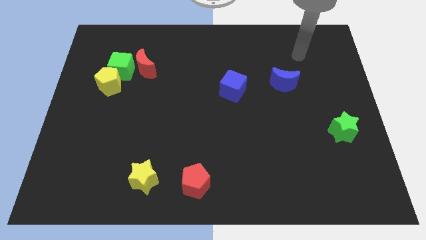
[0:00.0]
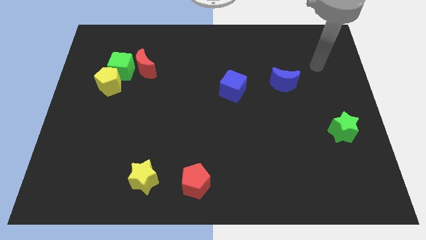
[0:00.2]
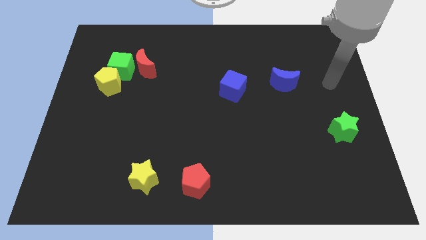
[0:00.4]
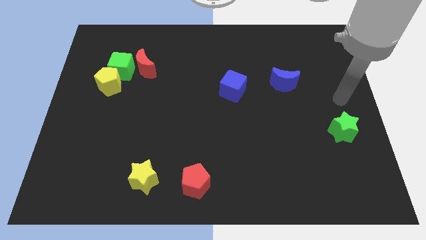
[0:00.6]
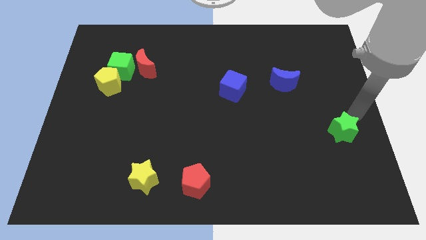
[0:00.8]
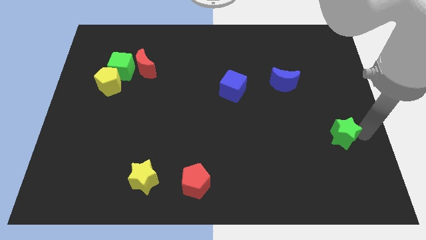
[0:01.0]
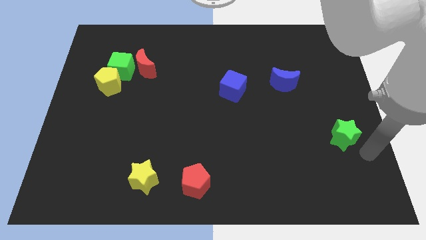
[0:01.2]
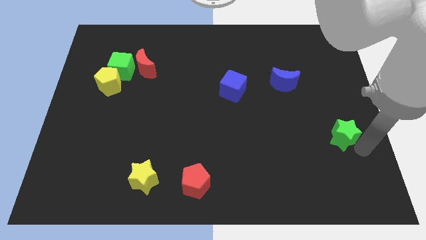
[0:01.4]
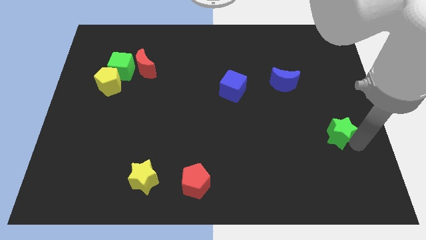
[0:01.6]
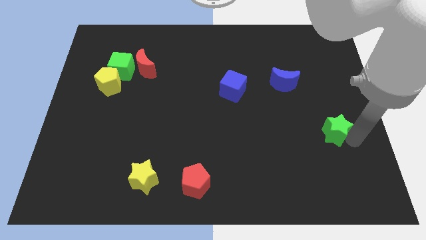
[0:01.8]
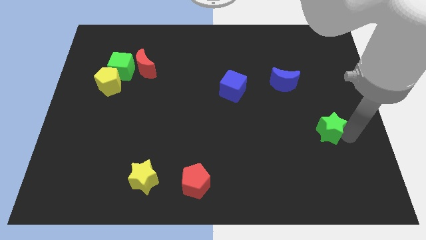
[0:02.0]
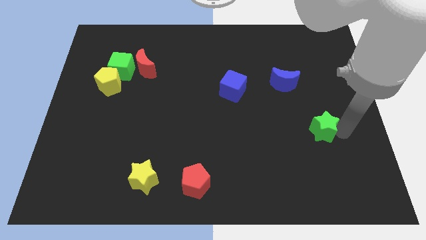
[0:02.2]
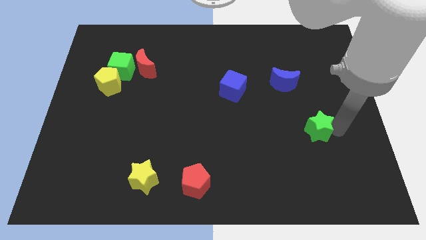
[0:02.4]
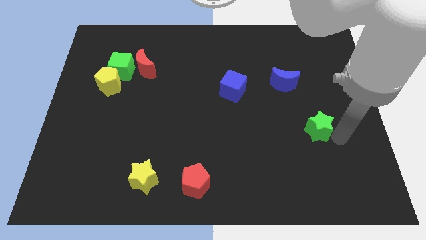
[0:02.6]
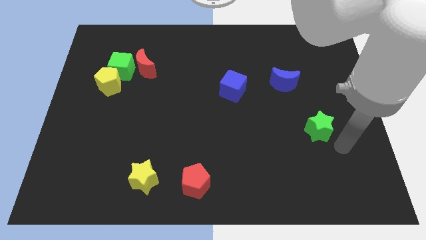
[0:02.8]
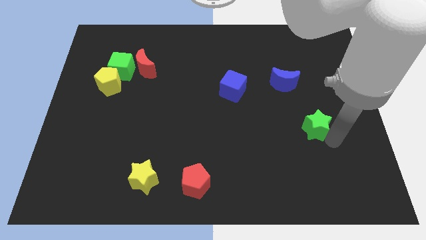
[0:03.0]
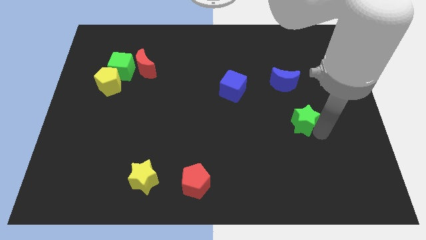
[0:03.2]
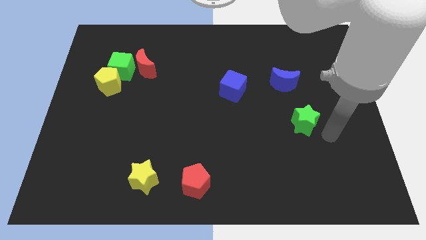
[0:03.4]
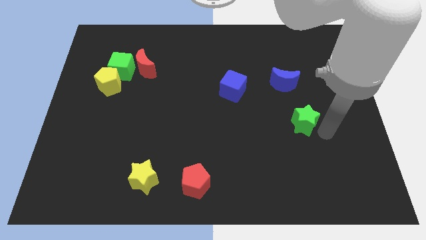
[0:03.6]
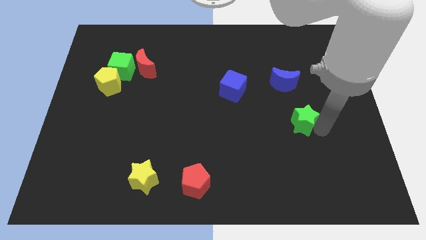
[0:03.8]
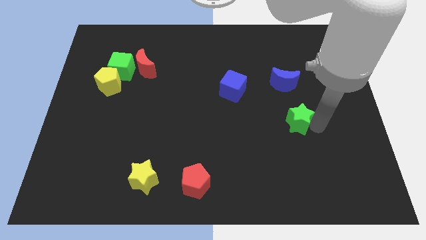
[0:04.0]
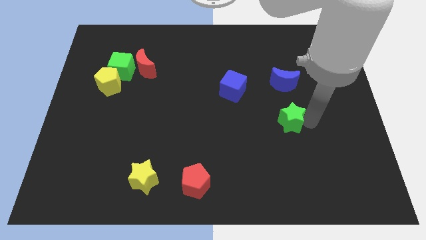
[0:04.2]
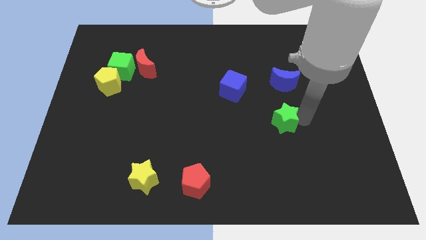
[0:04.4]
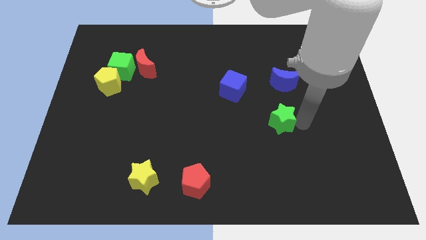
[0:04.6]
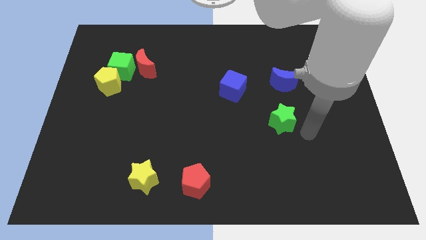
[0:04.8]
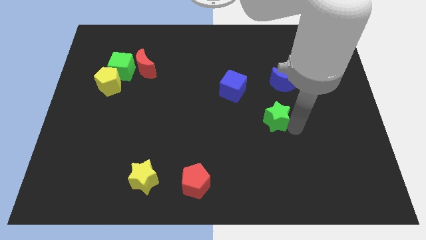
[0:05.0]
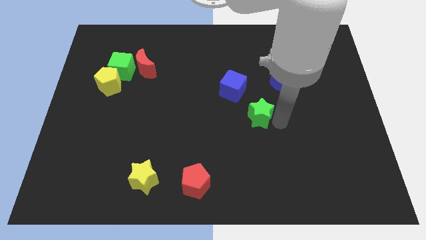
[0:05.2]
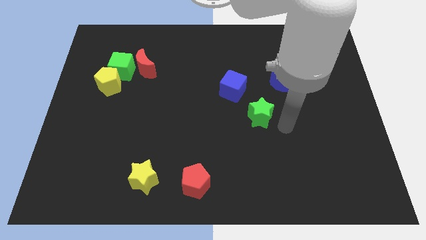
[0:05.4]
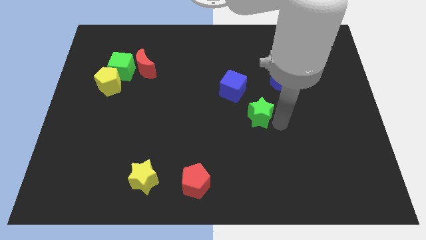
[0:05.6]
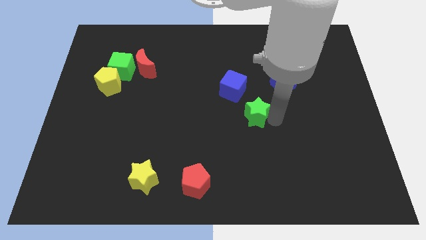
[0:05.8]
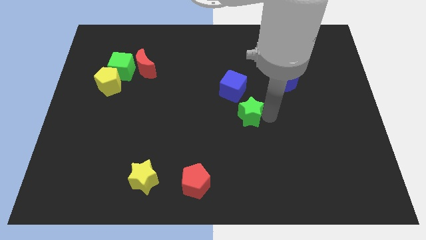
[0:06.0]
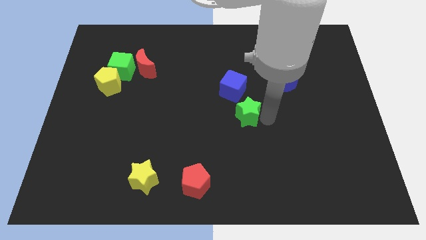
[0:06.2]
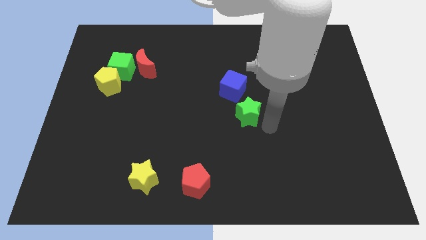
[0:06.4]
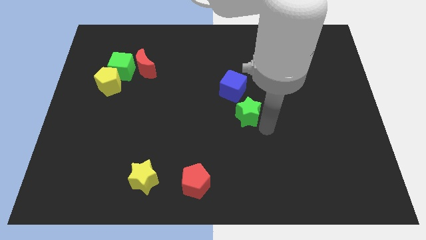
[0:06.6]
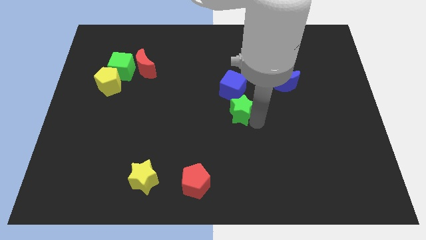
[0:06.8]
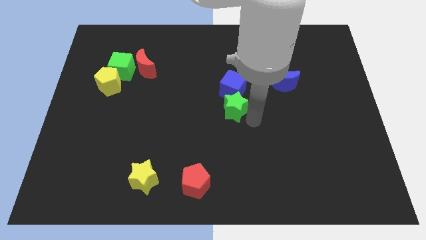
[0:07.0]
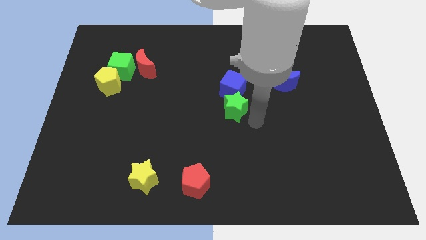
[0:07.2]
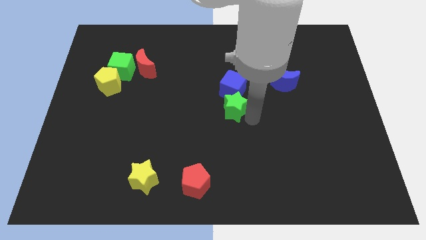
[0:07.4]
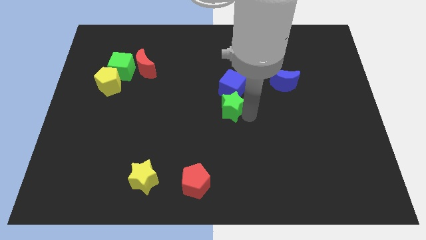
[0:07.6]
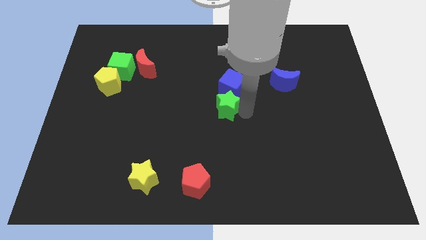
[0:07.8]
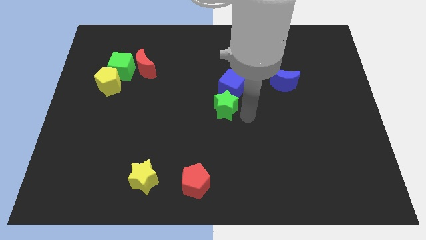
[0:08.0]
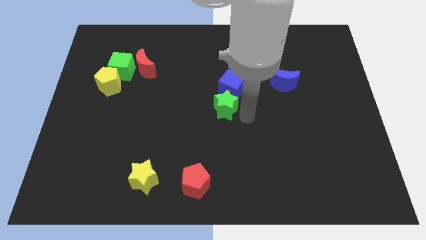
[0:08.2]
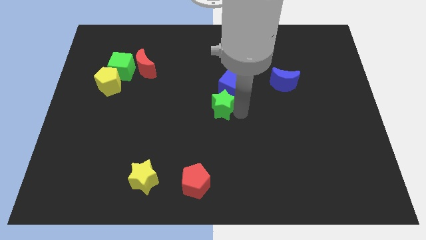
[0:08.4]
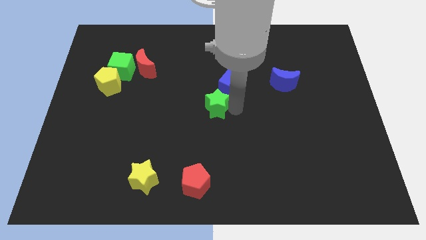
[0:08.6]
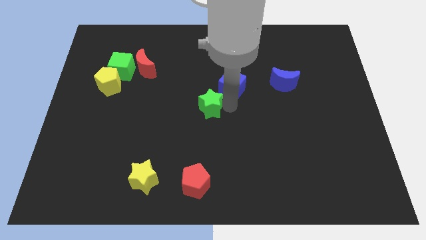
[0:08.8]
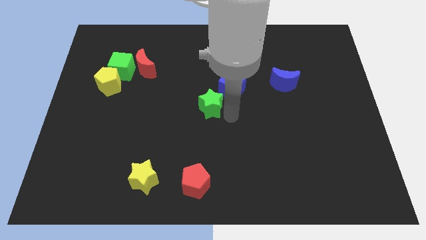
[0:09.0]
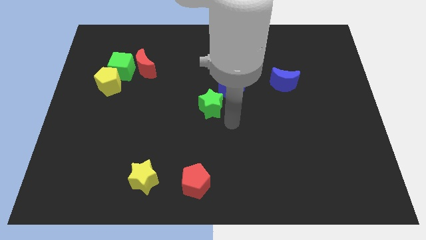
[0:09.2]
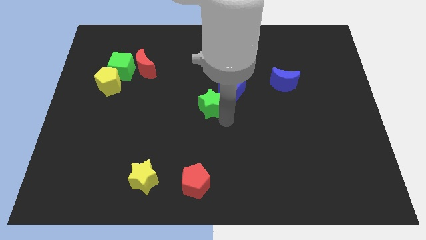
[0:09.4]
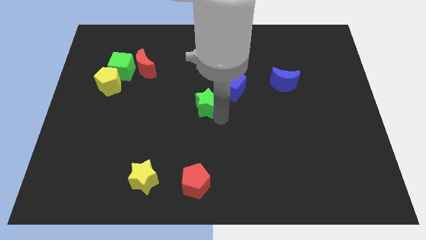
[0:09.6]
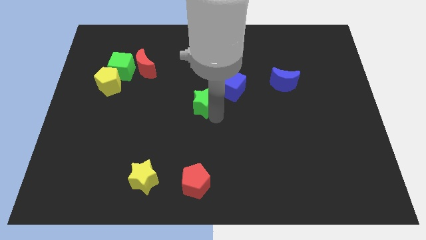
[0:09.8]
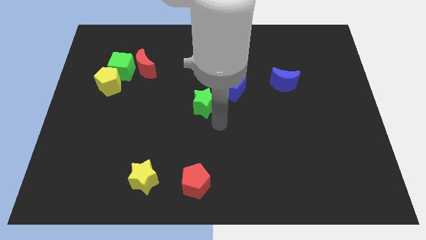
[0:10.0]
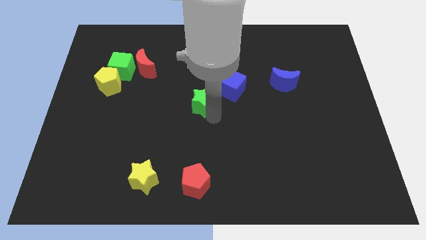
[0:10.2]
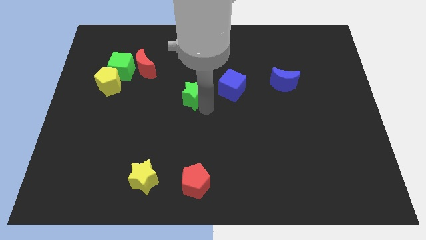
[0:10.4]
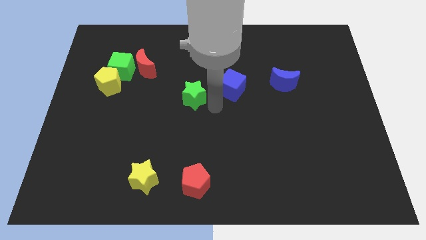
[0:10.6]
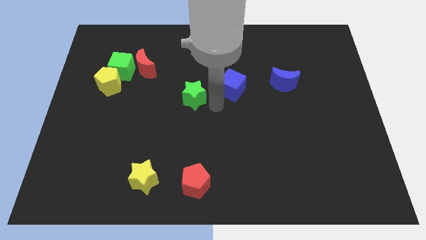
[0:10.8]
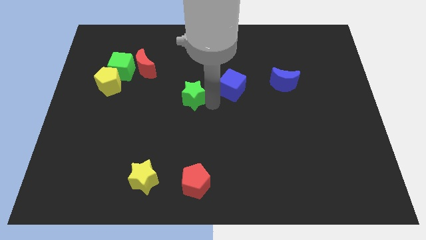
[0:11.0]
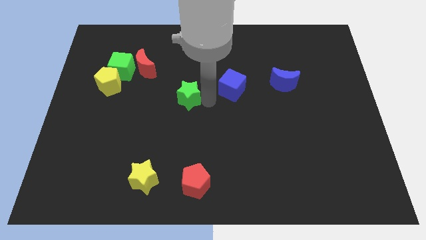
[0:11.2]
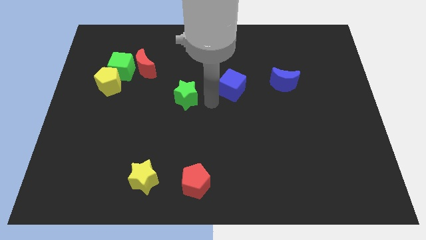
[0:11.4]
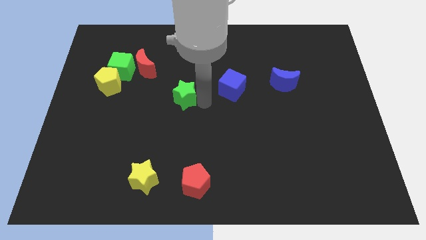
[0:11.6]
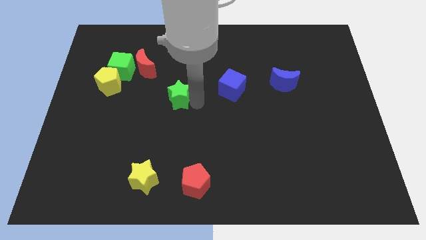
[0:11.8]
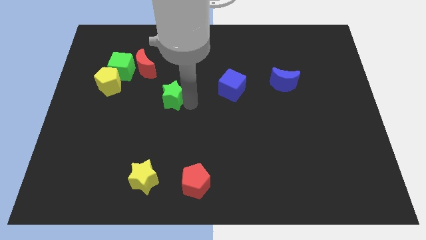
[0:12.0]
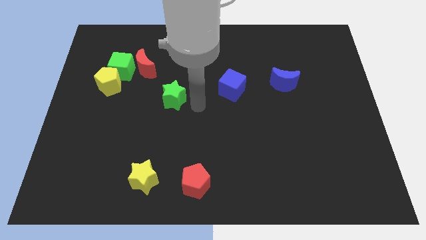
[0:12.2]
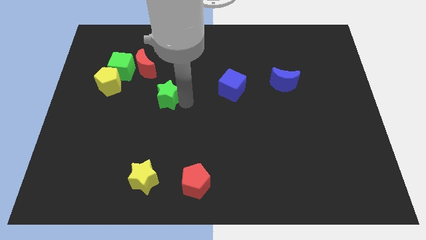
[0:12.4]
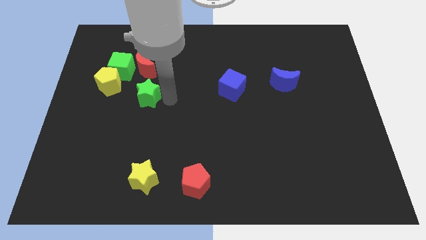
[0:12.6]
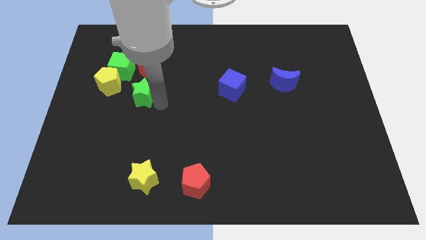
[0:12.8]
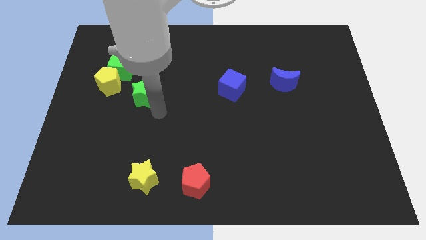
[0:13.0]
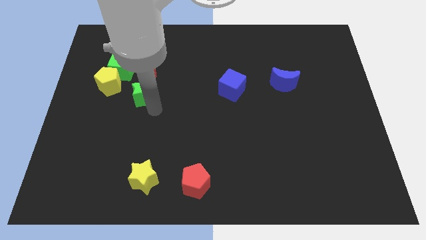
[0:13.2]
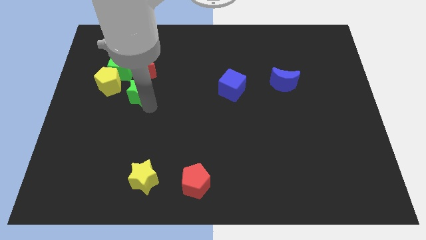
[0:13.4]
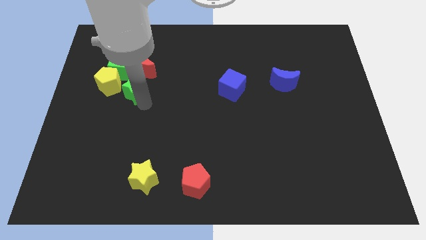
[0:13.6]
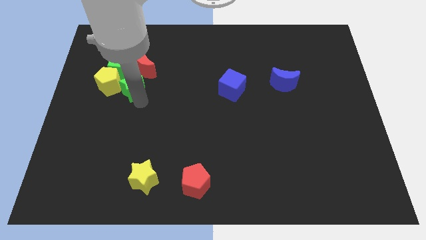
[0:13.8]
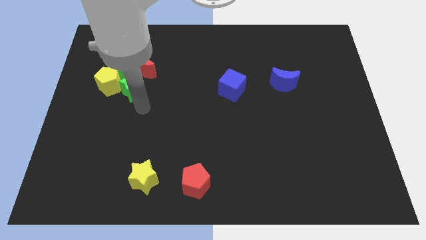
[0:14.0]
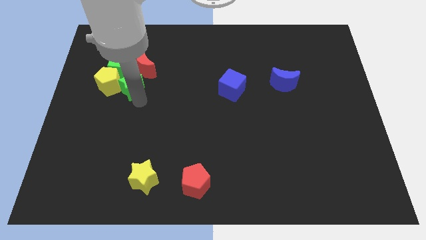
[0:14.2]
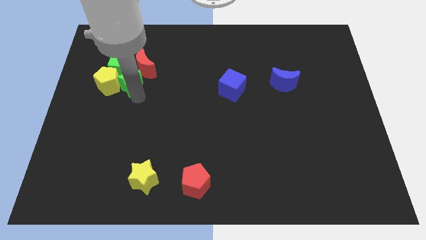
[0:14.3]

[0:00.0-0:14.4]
slide the green star towards the green cube
